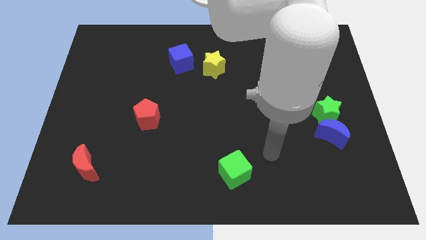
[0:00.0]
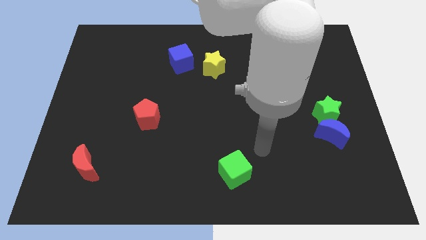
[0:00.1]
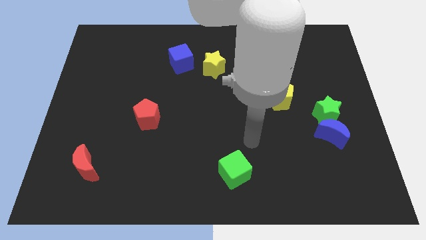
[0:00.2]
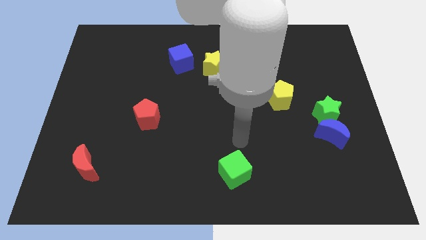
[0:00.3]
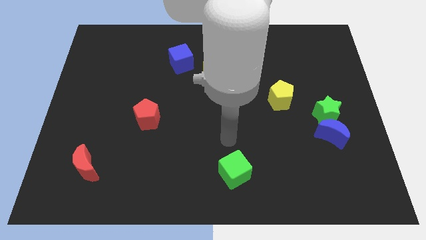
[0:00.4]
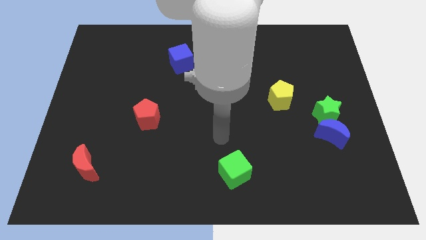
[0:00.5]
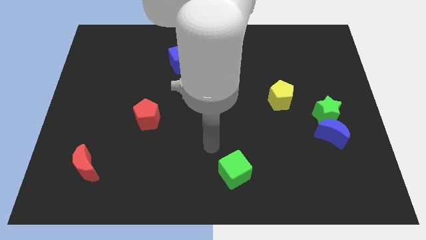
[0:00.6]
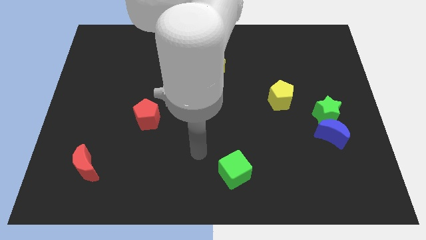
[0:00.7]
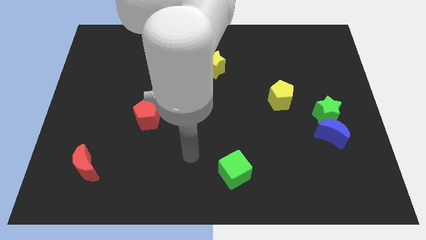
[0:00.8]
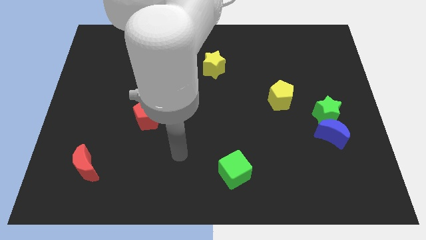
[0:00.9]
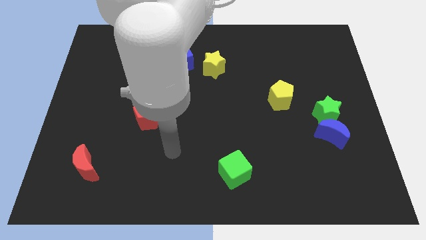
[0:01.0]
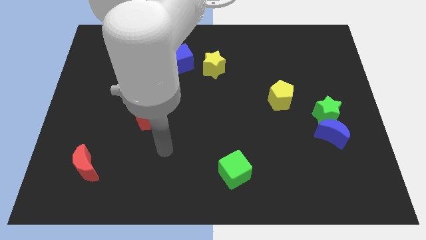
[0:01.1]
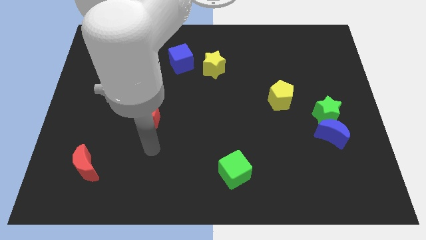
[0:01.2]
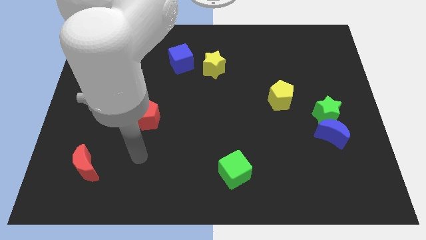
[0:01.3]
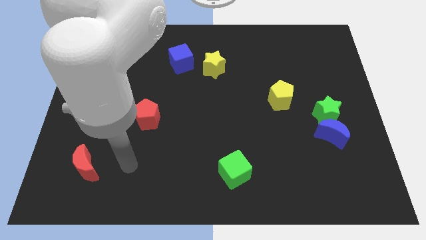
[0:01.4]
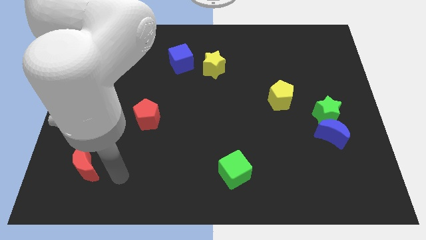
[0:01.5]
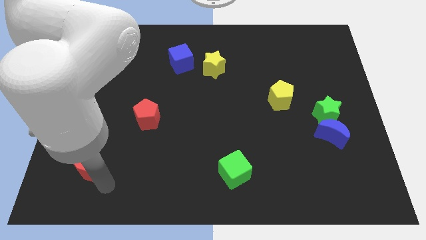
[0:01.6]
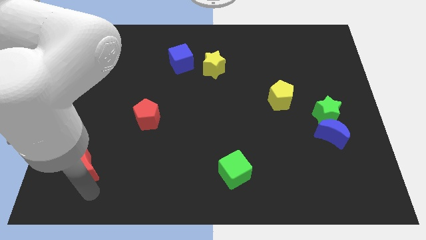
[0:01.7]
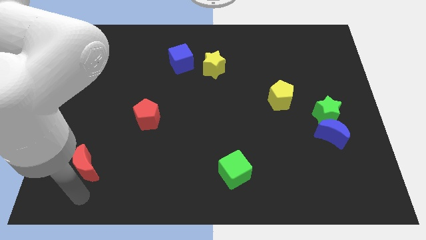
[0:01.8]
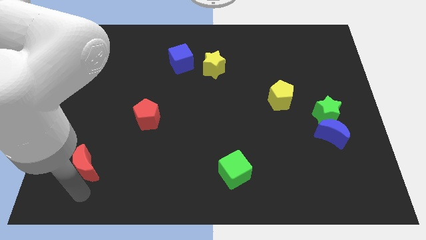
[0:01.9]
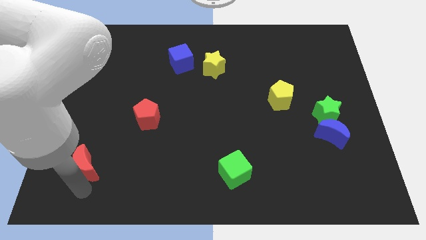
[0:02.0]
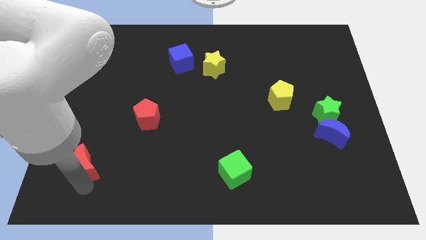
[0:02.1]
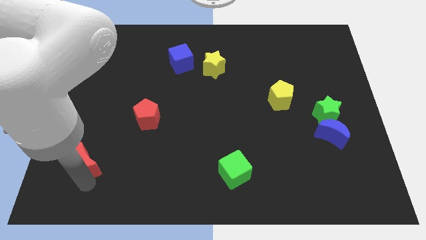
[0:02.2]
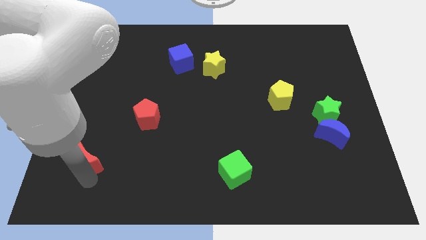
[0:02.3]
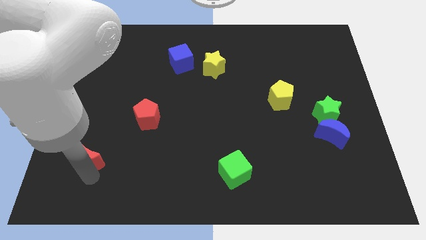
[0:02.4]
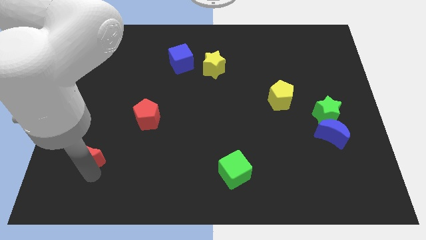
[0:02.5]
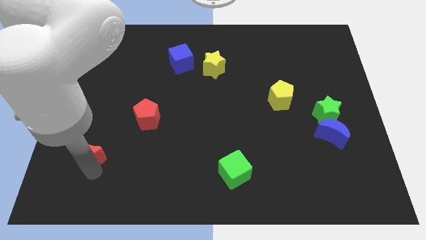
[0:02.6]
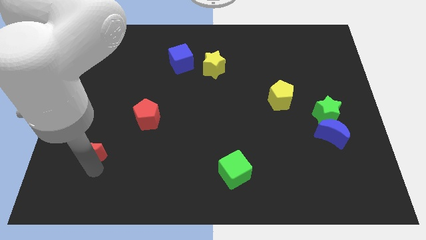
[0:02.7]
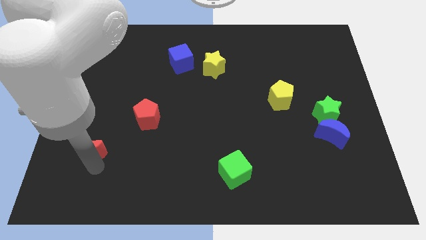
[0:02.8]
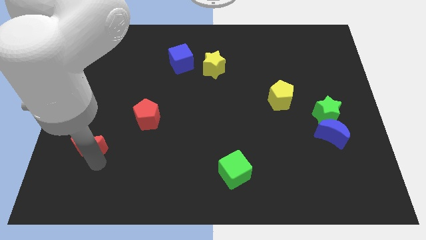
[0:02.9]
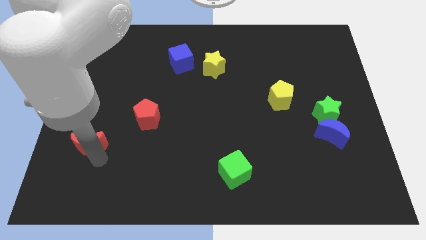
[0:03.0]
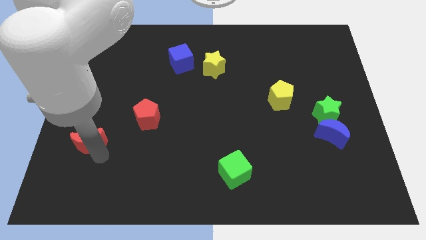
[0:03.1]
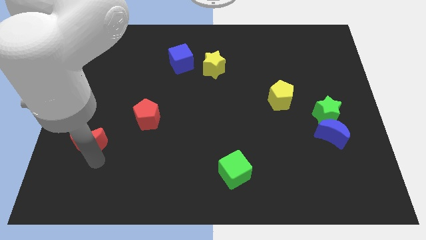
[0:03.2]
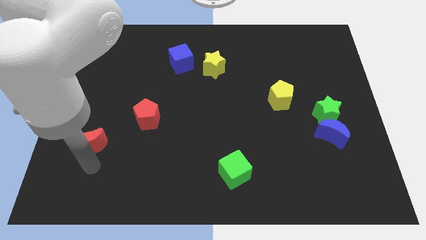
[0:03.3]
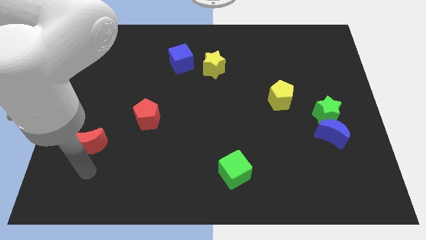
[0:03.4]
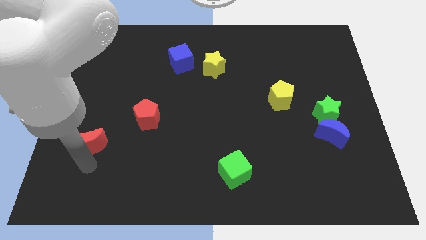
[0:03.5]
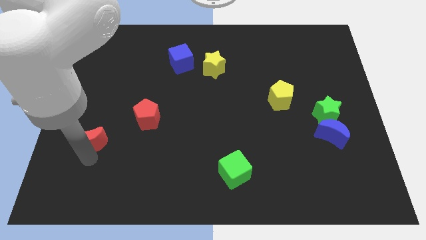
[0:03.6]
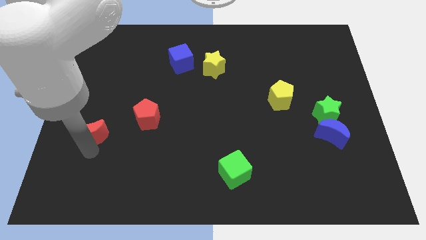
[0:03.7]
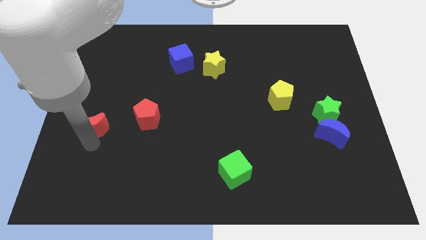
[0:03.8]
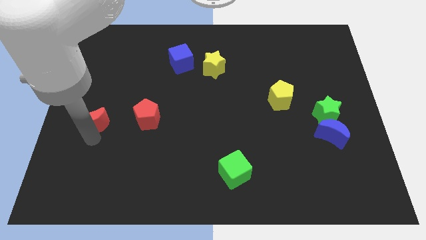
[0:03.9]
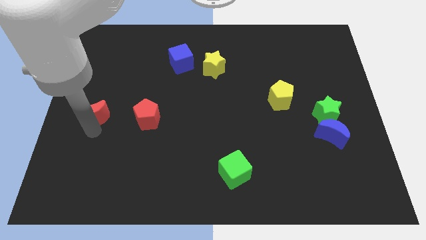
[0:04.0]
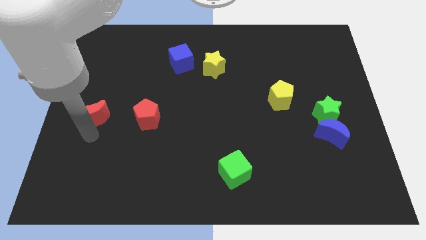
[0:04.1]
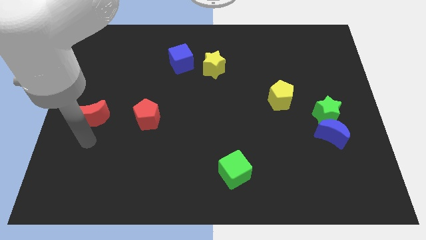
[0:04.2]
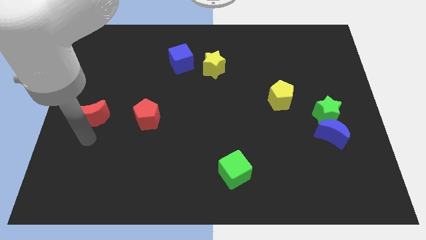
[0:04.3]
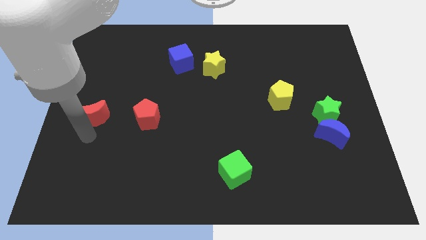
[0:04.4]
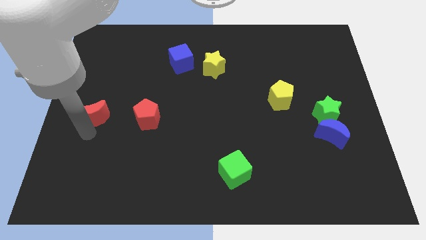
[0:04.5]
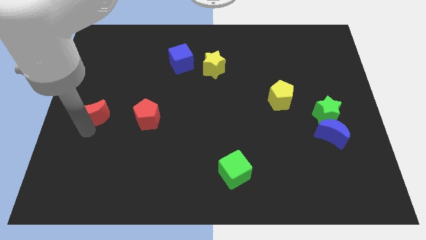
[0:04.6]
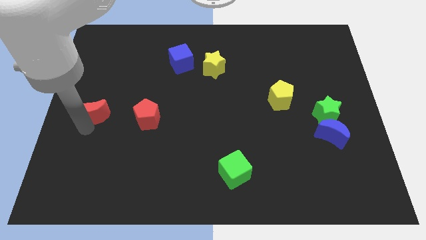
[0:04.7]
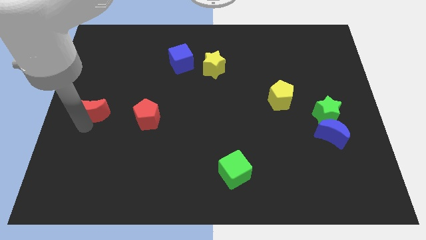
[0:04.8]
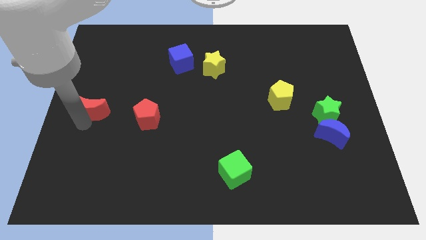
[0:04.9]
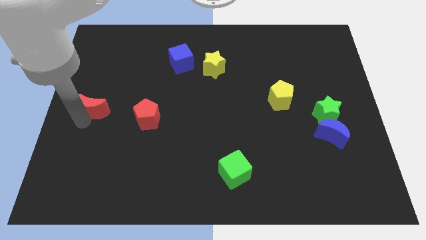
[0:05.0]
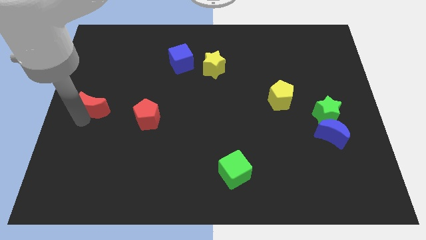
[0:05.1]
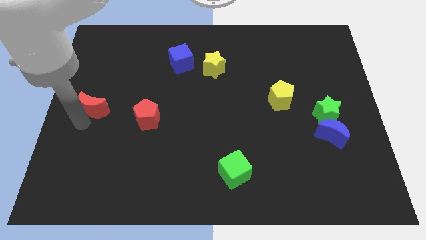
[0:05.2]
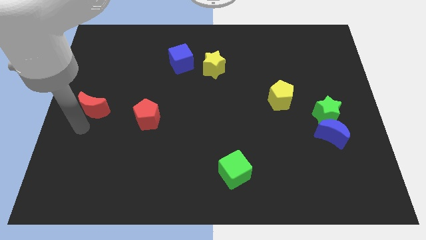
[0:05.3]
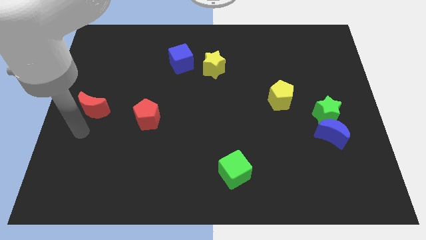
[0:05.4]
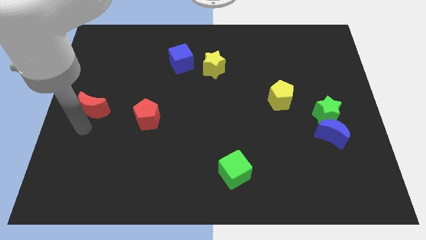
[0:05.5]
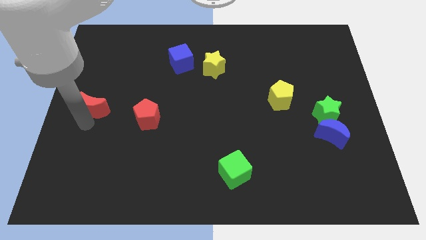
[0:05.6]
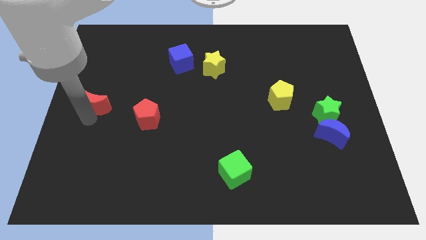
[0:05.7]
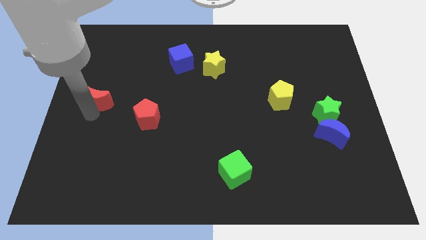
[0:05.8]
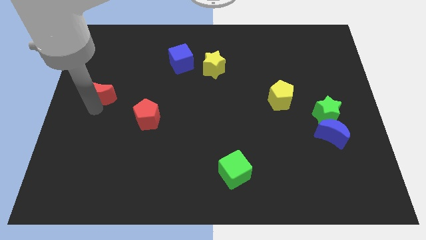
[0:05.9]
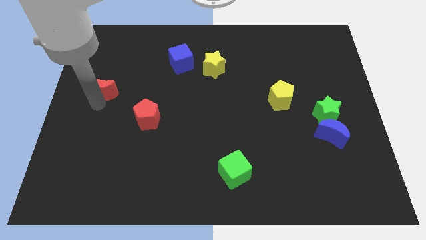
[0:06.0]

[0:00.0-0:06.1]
push the red moon upwards

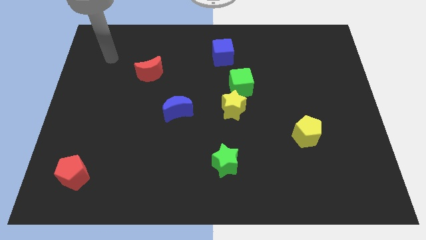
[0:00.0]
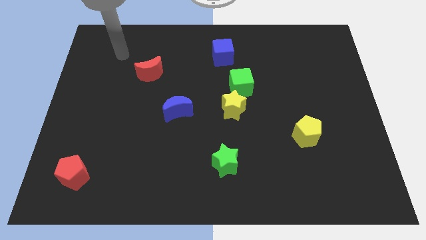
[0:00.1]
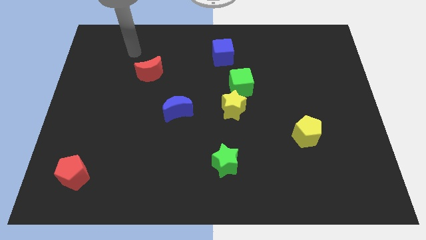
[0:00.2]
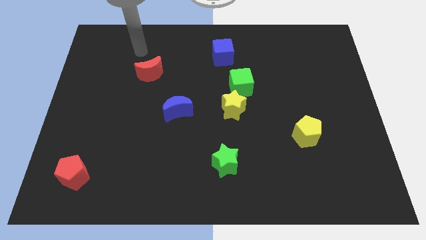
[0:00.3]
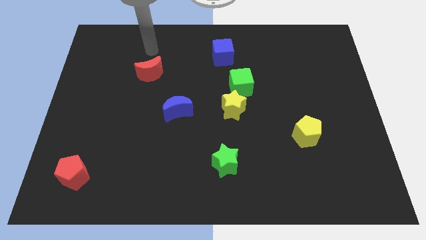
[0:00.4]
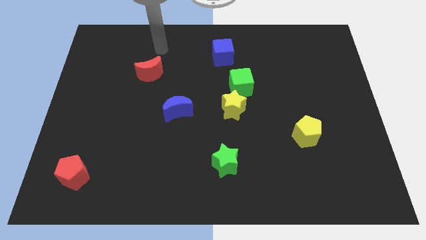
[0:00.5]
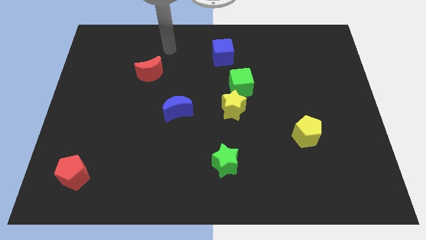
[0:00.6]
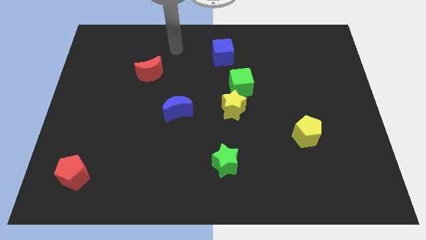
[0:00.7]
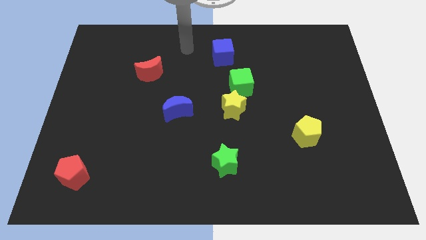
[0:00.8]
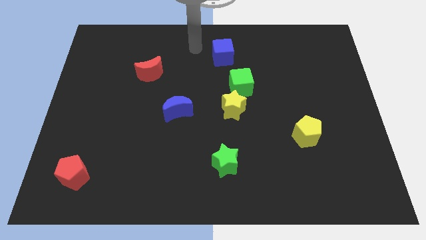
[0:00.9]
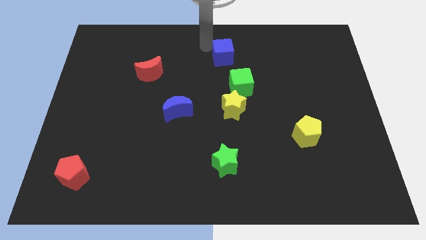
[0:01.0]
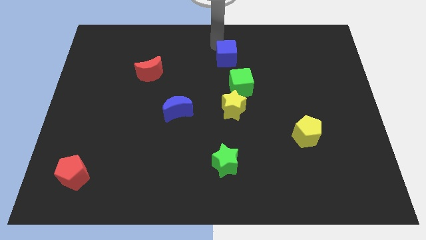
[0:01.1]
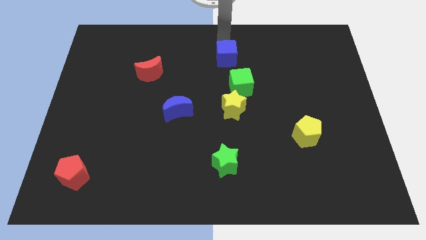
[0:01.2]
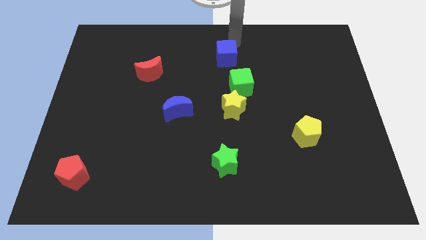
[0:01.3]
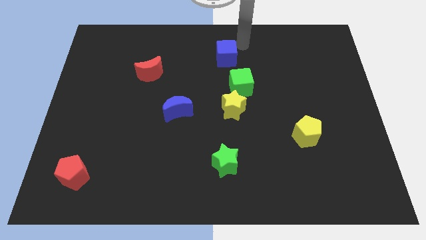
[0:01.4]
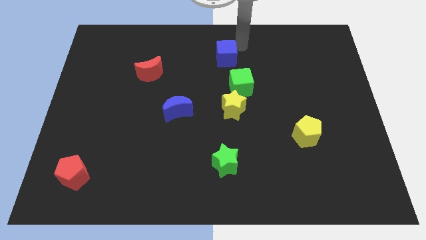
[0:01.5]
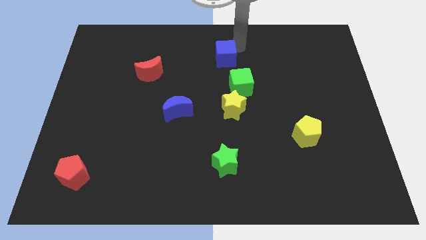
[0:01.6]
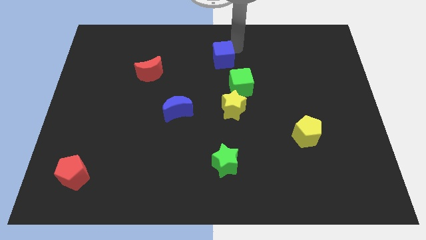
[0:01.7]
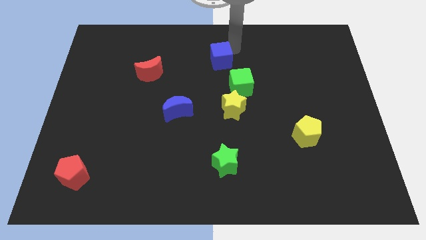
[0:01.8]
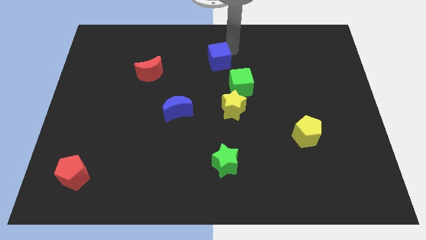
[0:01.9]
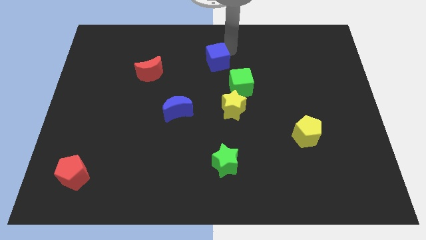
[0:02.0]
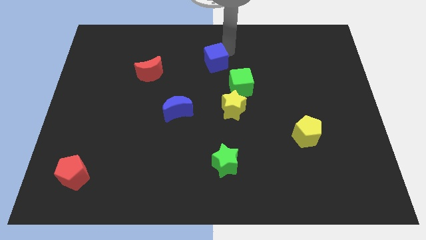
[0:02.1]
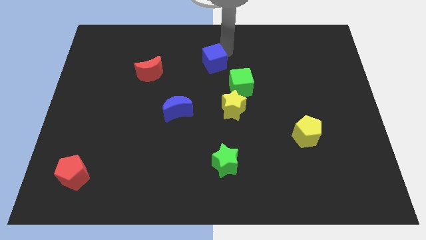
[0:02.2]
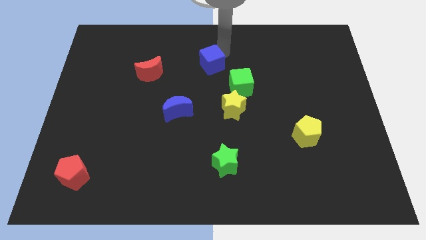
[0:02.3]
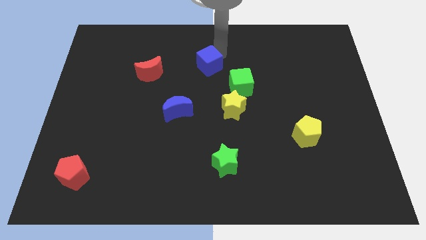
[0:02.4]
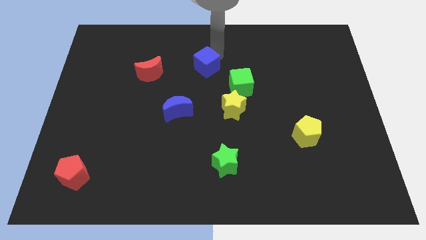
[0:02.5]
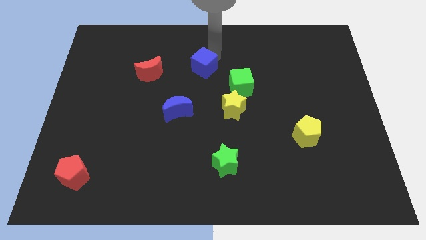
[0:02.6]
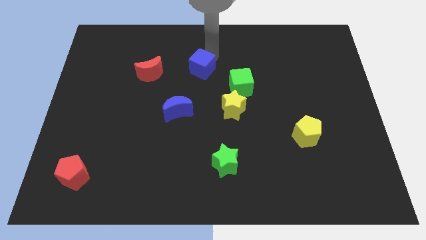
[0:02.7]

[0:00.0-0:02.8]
move the blue cube a bit downwards and left diagonally
